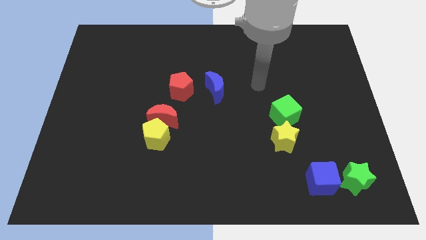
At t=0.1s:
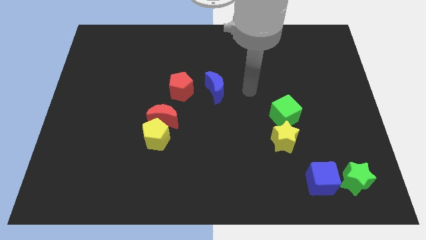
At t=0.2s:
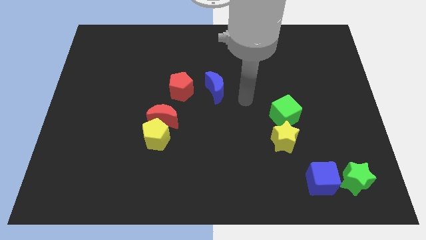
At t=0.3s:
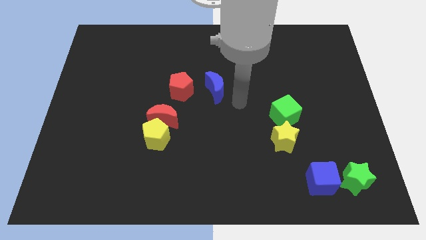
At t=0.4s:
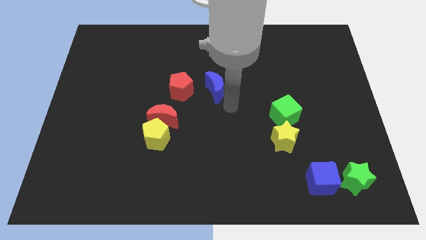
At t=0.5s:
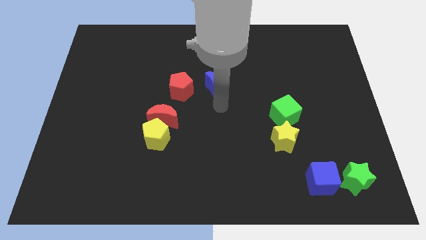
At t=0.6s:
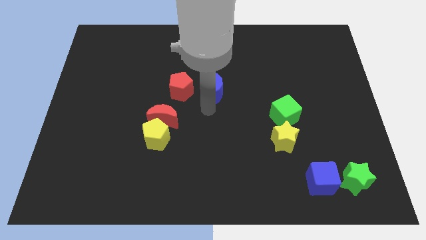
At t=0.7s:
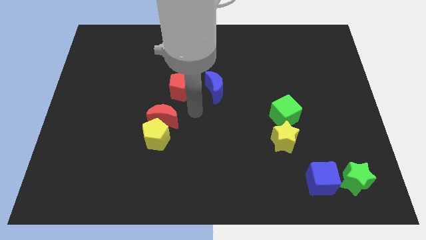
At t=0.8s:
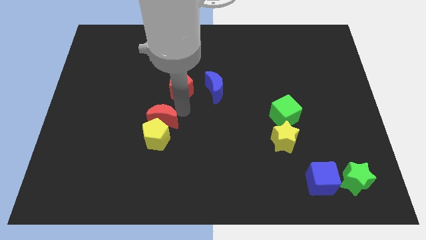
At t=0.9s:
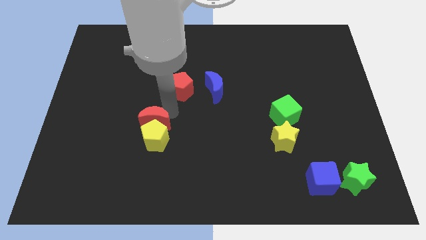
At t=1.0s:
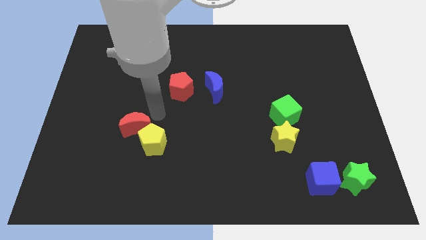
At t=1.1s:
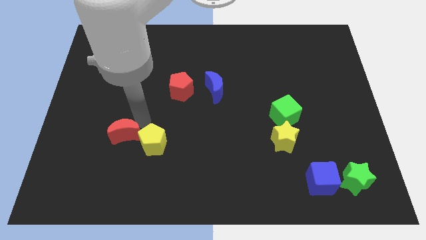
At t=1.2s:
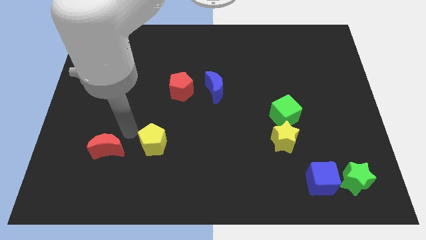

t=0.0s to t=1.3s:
move the yellow pentagon away from the red moon

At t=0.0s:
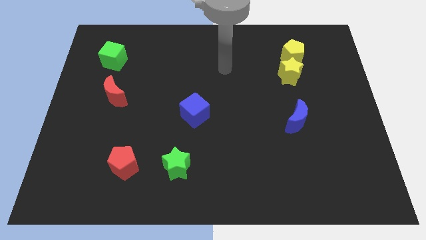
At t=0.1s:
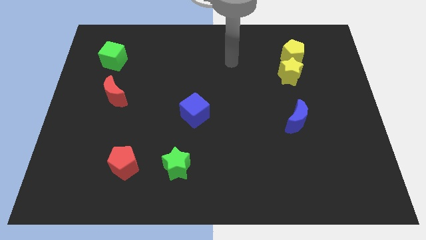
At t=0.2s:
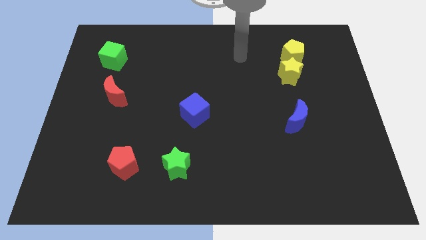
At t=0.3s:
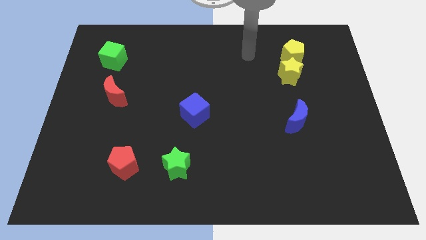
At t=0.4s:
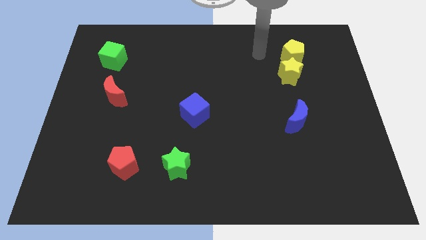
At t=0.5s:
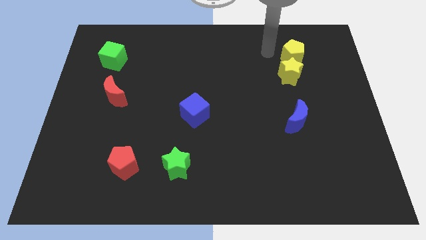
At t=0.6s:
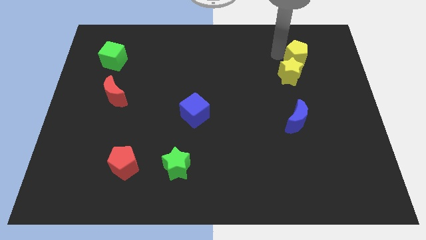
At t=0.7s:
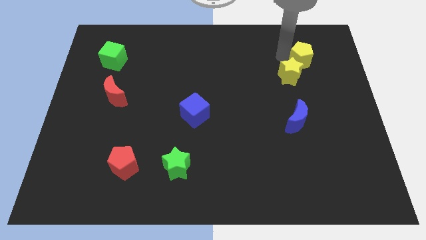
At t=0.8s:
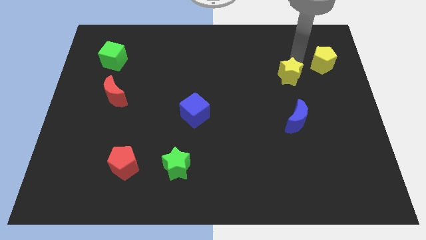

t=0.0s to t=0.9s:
move the yellow star away from the yellow pentagon

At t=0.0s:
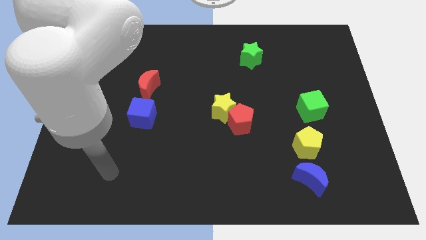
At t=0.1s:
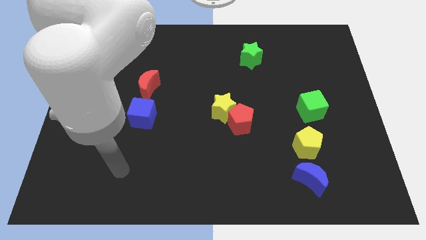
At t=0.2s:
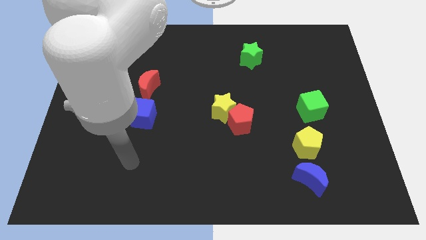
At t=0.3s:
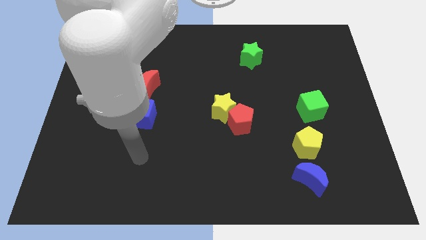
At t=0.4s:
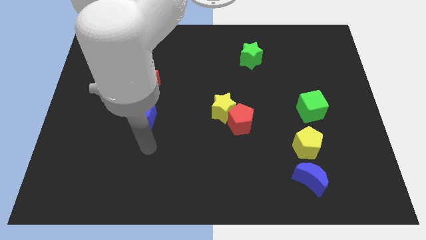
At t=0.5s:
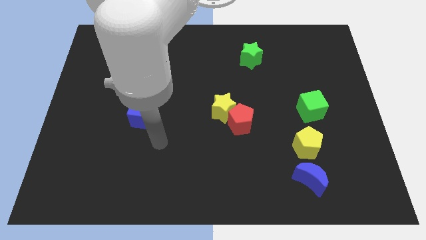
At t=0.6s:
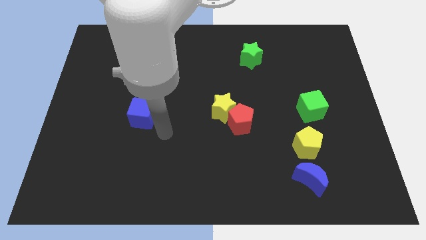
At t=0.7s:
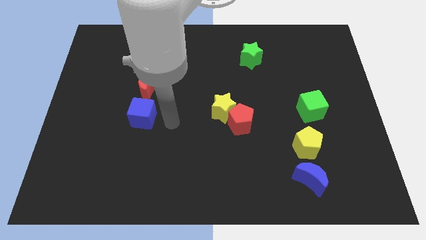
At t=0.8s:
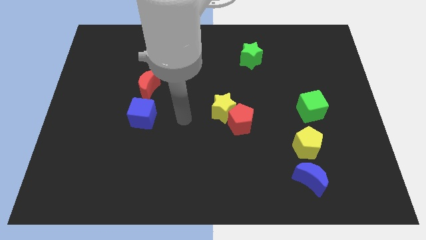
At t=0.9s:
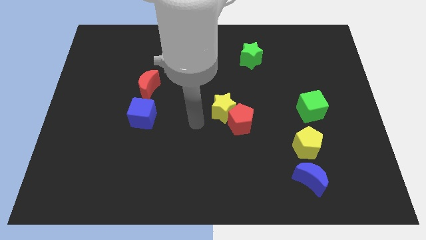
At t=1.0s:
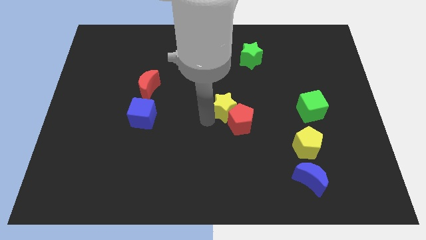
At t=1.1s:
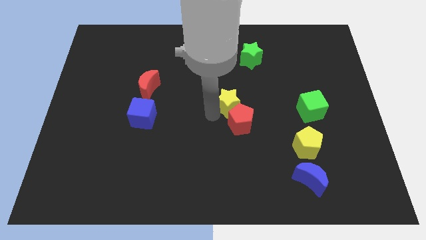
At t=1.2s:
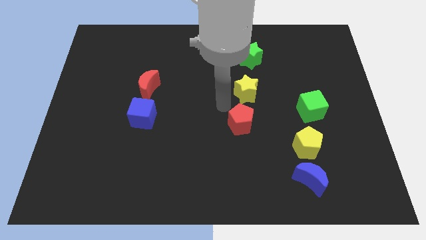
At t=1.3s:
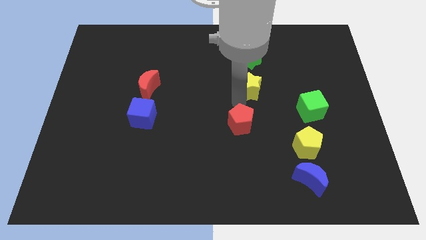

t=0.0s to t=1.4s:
move the red pentagon away from the yellow star

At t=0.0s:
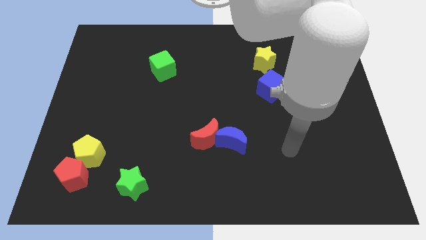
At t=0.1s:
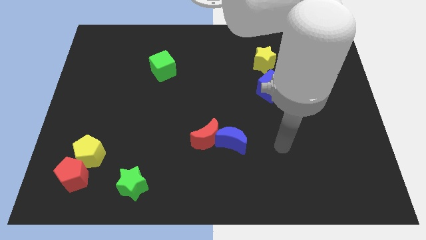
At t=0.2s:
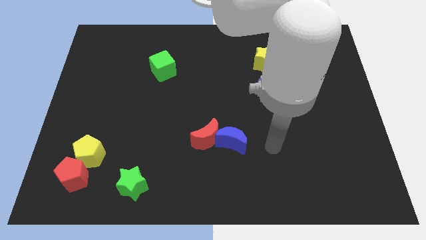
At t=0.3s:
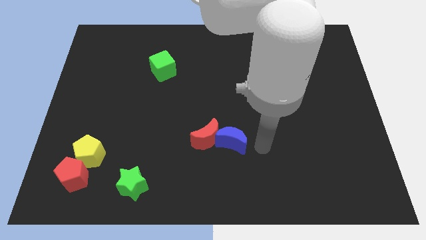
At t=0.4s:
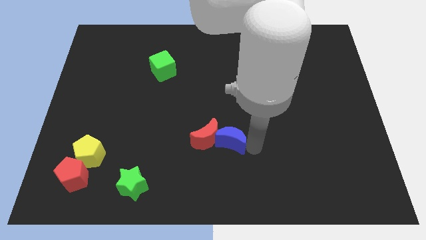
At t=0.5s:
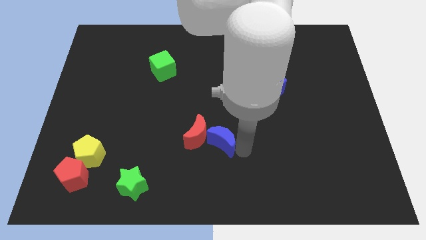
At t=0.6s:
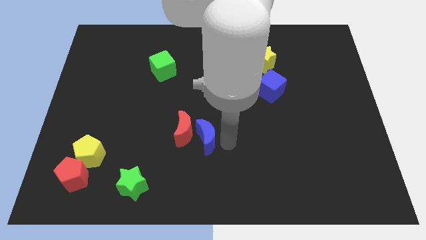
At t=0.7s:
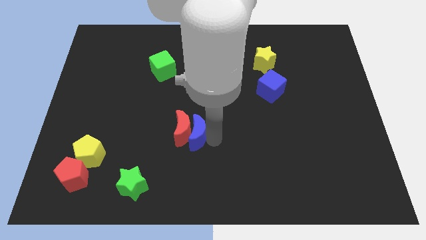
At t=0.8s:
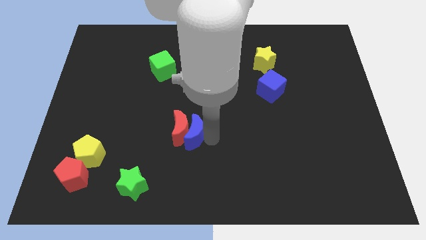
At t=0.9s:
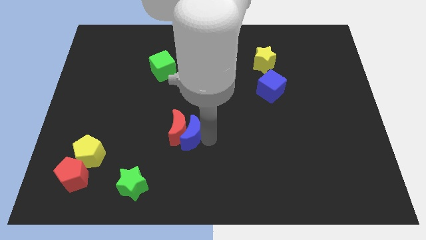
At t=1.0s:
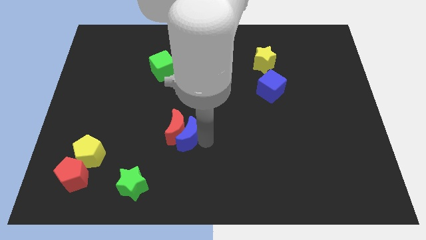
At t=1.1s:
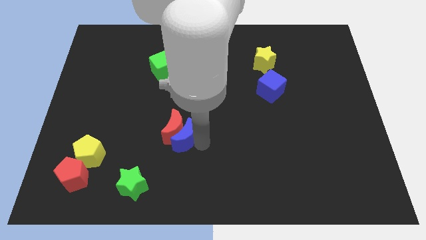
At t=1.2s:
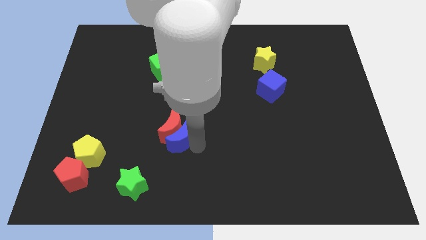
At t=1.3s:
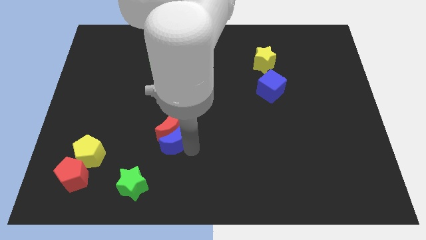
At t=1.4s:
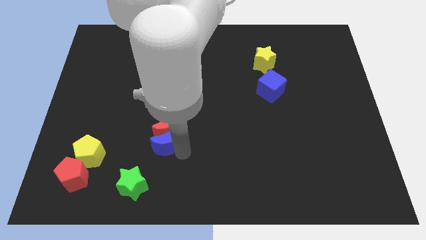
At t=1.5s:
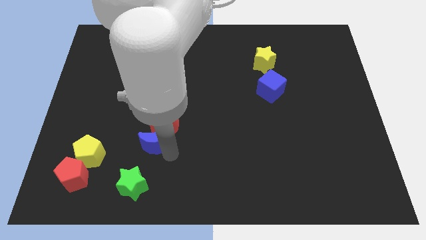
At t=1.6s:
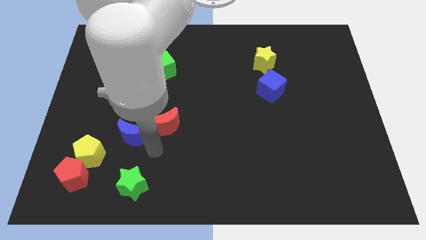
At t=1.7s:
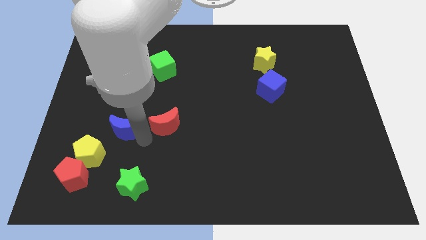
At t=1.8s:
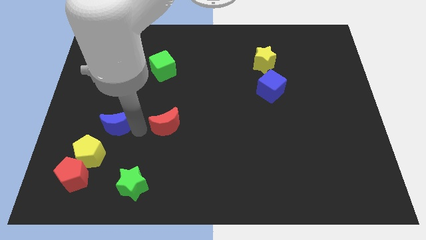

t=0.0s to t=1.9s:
pull the red moon apart from the blue moon

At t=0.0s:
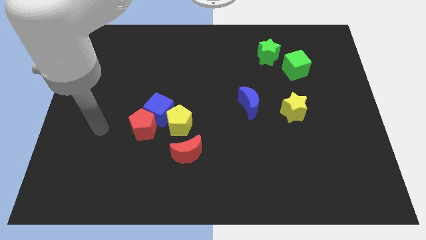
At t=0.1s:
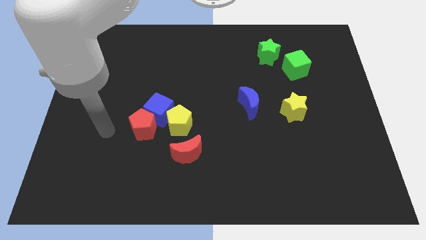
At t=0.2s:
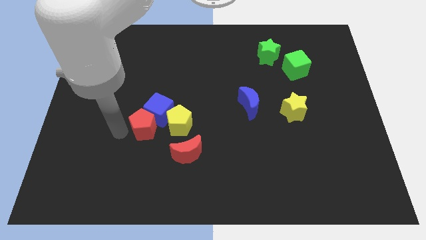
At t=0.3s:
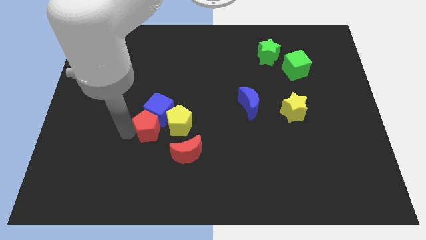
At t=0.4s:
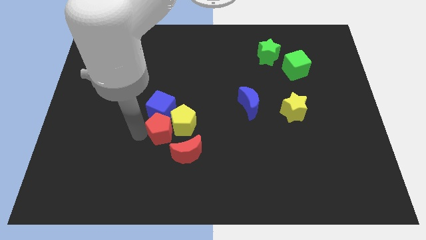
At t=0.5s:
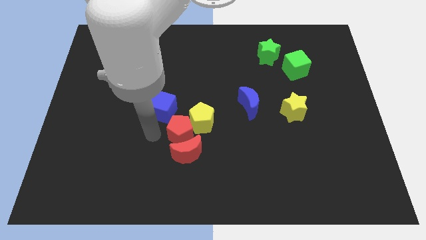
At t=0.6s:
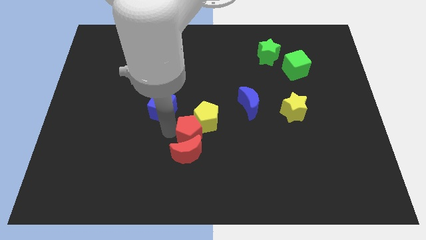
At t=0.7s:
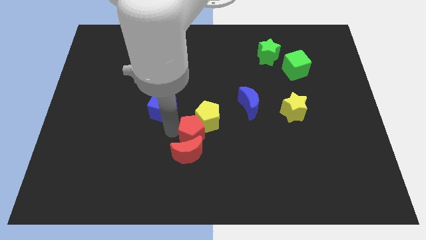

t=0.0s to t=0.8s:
pull the blue cube apart from the red pentagon and yellow pentagon

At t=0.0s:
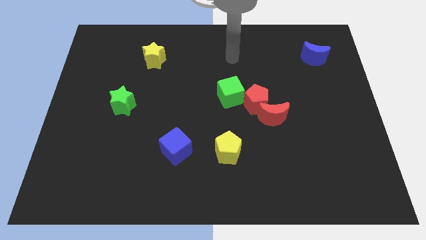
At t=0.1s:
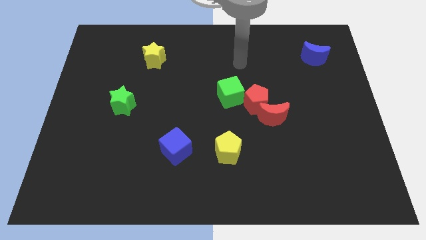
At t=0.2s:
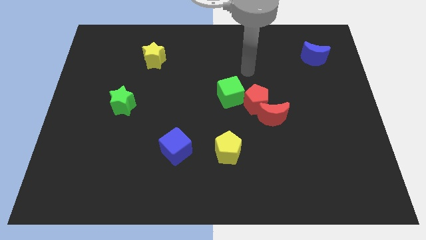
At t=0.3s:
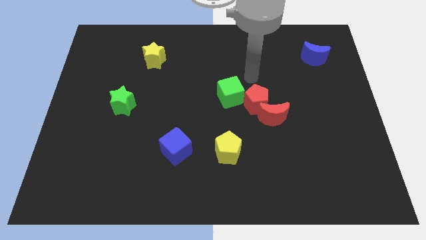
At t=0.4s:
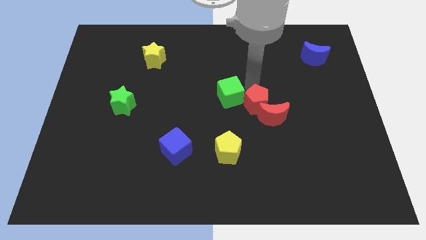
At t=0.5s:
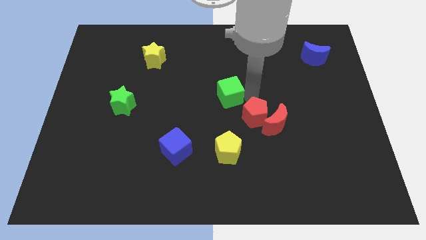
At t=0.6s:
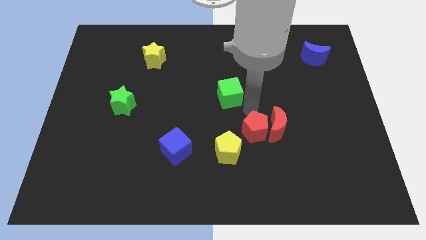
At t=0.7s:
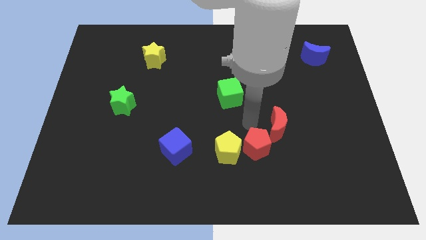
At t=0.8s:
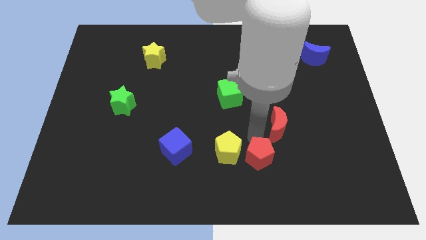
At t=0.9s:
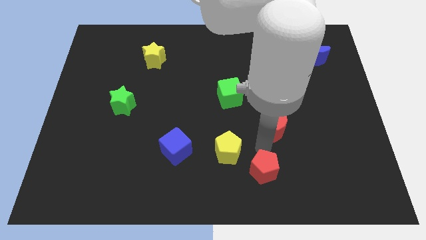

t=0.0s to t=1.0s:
pull the red moon apart from the red pentagon

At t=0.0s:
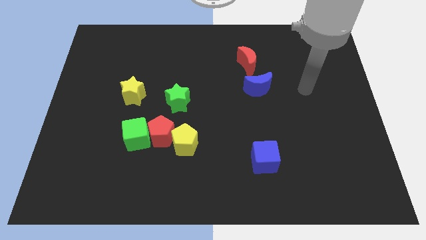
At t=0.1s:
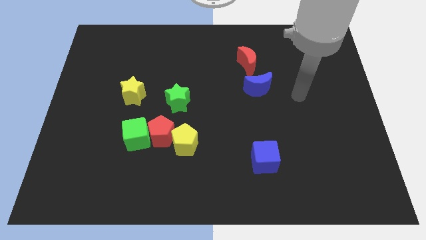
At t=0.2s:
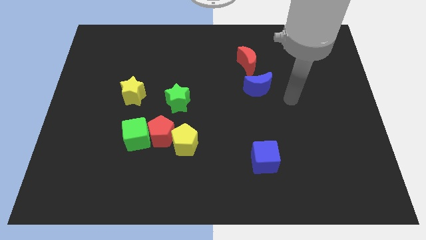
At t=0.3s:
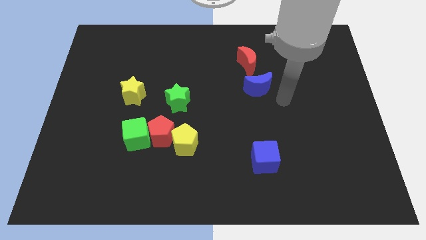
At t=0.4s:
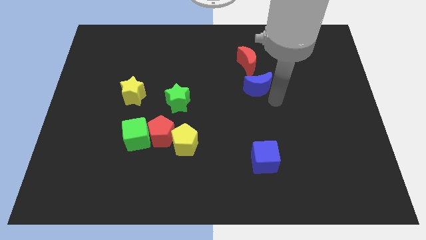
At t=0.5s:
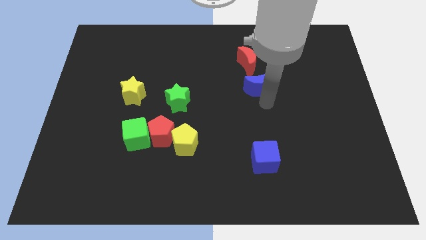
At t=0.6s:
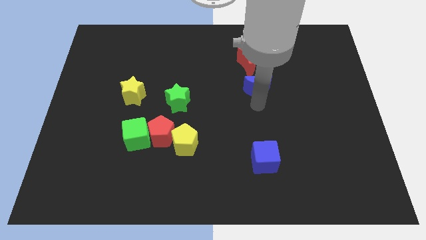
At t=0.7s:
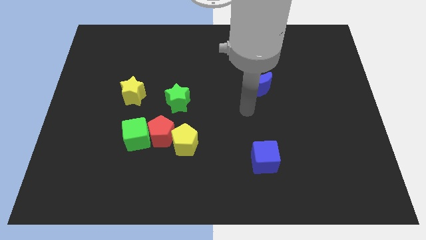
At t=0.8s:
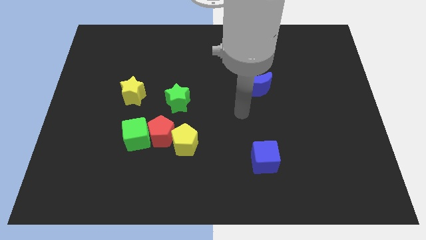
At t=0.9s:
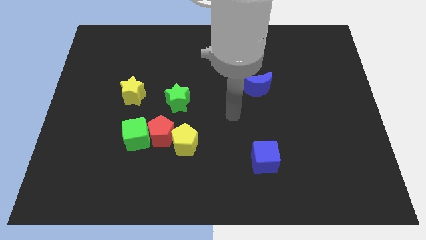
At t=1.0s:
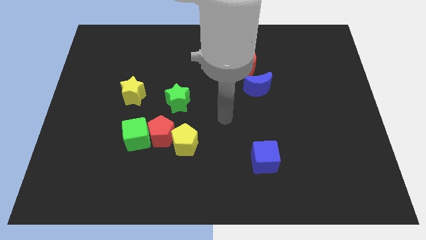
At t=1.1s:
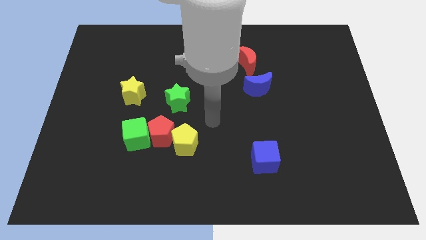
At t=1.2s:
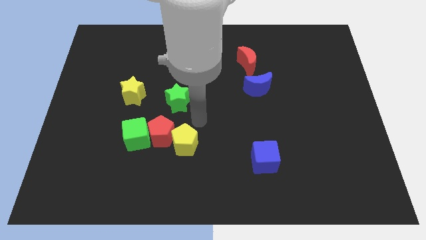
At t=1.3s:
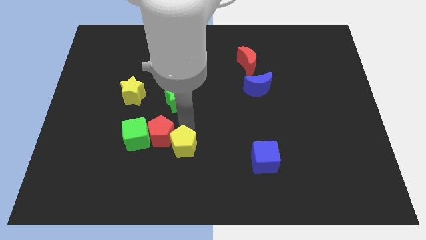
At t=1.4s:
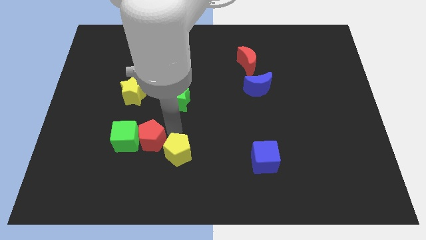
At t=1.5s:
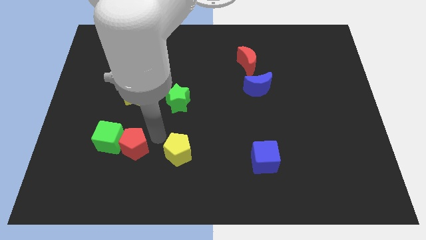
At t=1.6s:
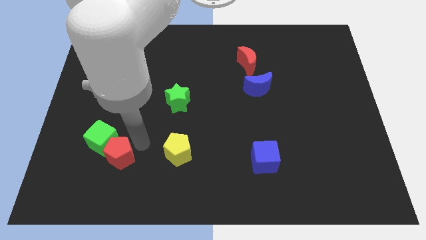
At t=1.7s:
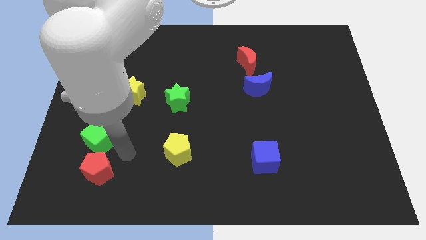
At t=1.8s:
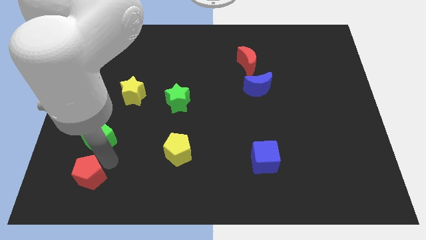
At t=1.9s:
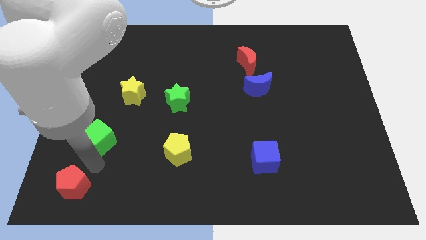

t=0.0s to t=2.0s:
separate the green cube from the red pentagon
